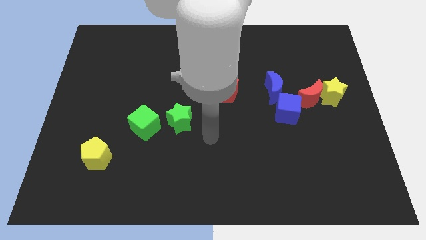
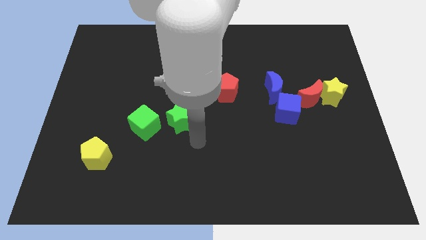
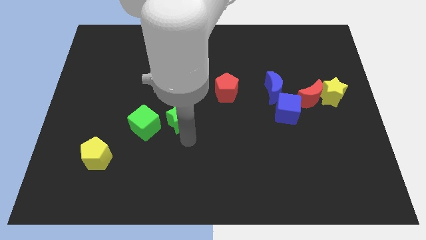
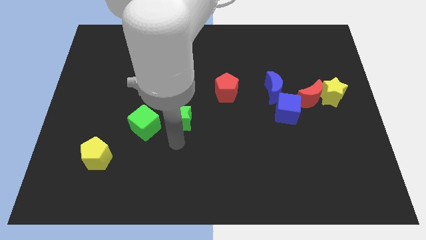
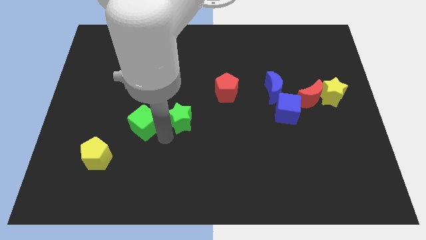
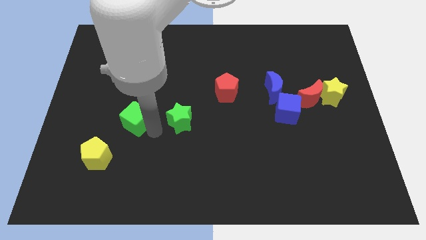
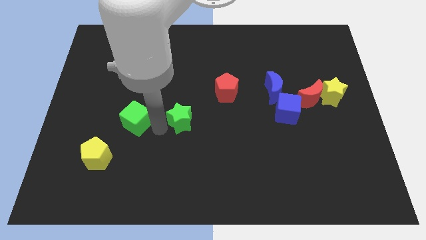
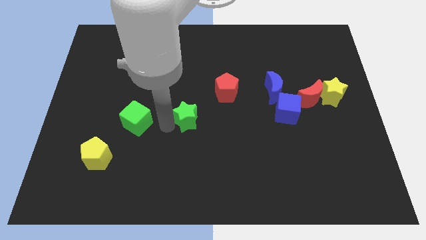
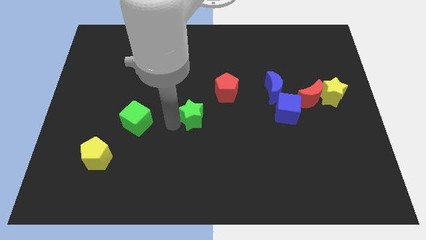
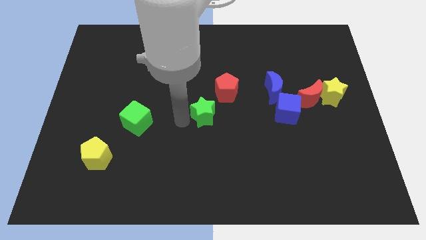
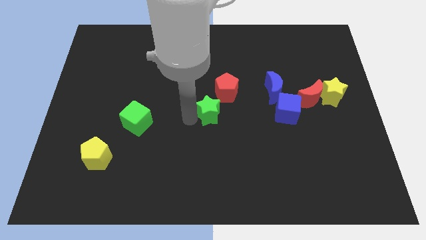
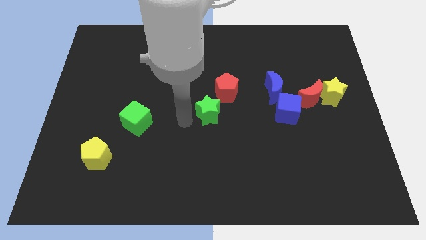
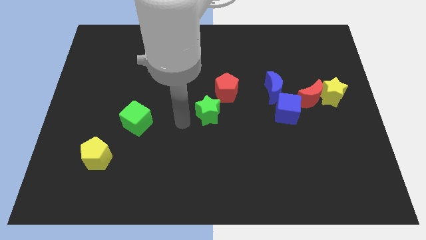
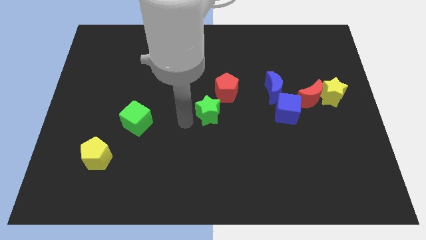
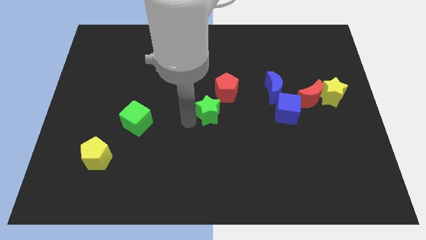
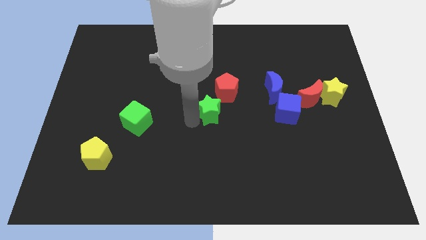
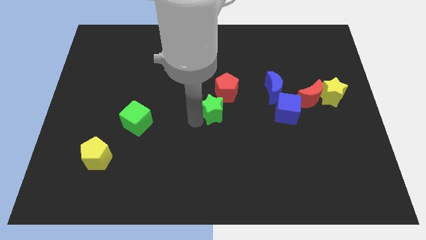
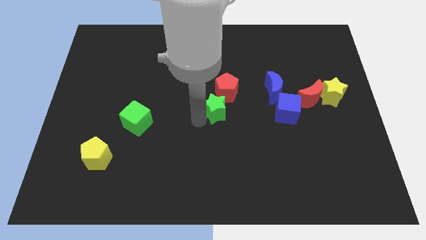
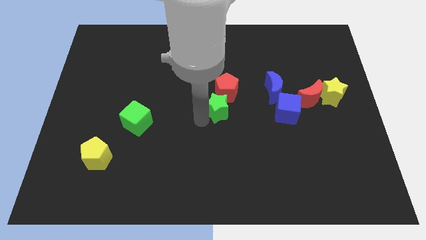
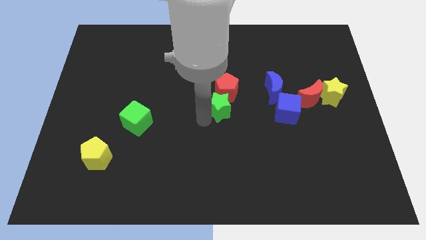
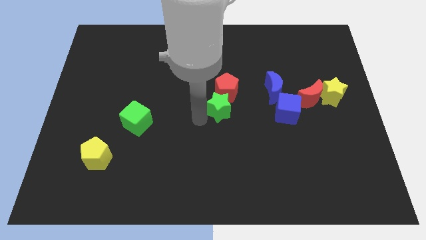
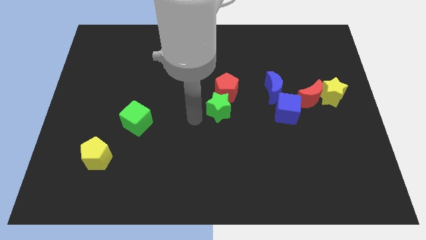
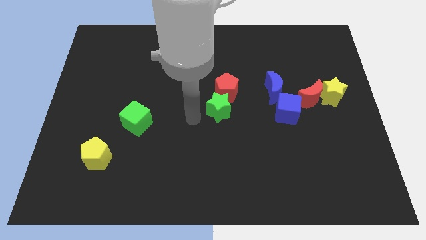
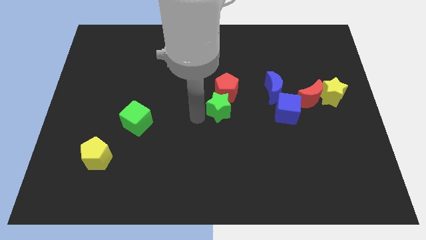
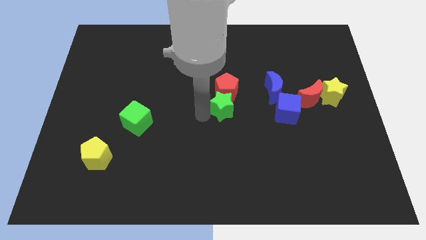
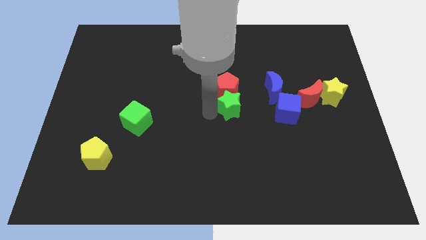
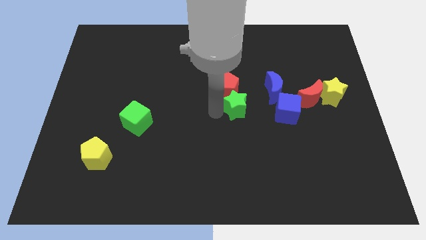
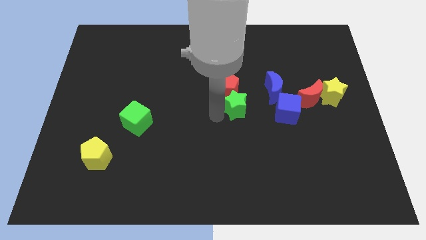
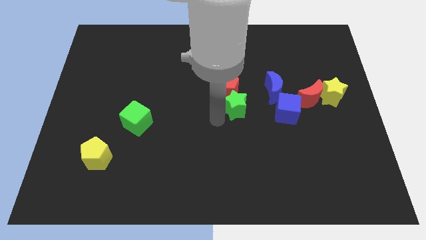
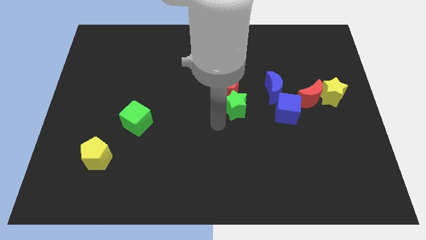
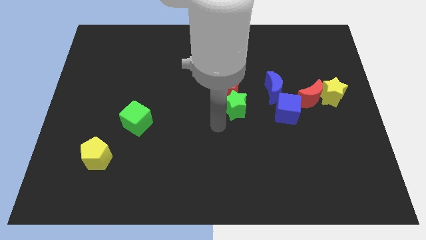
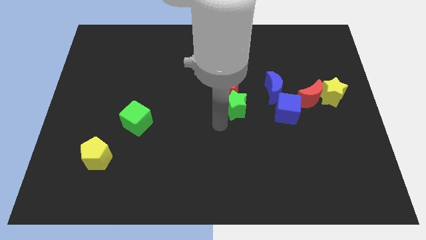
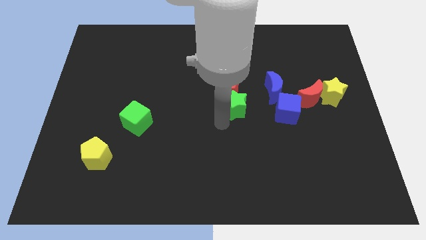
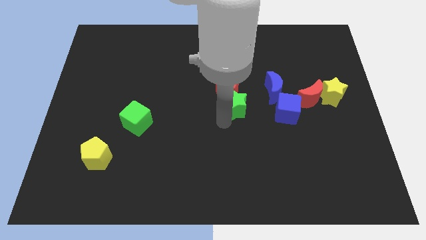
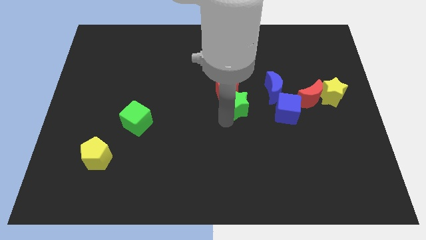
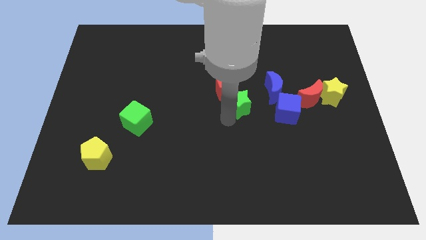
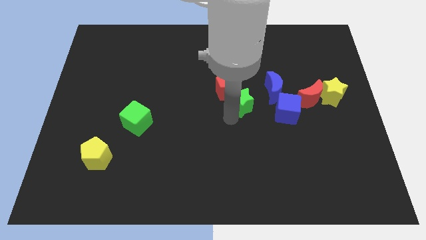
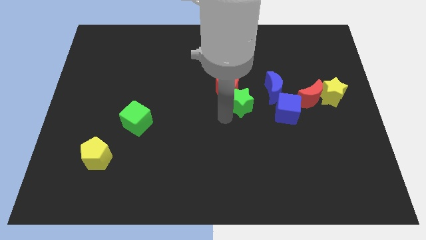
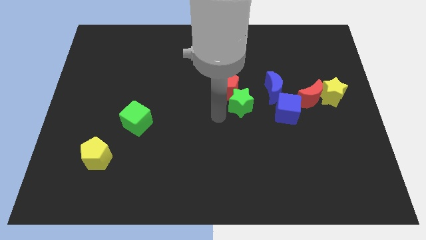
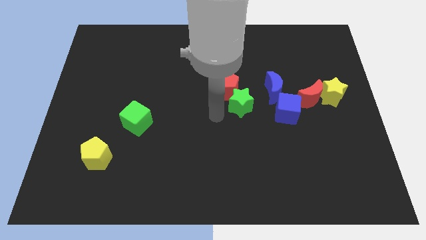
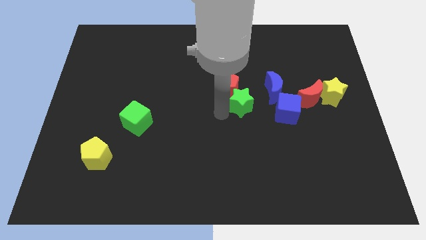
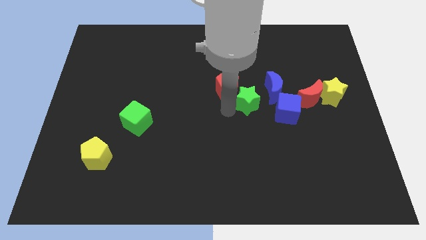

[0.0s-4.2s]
push the green star diagonally up and to the left of the blue cube

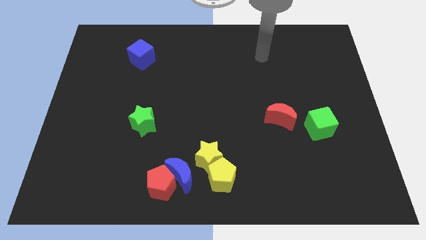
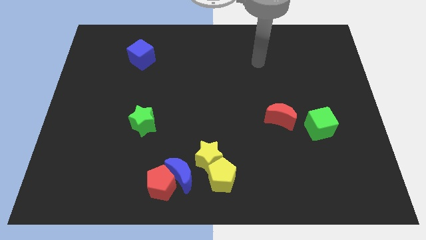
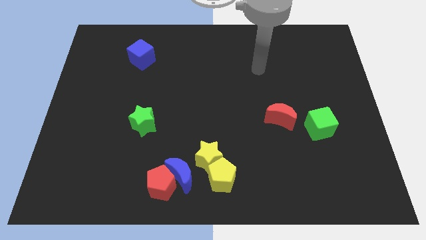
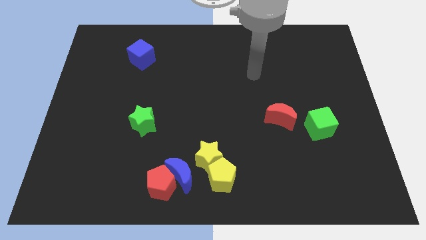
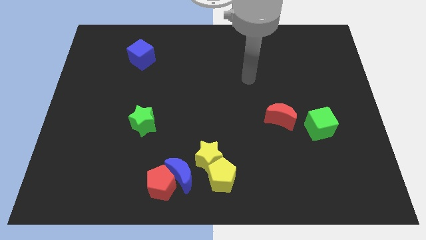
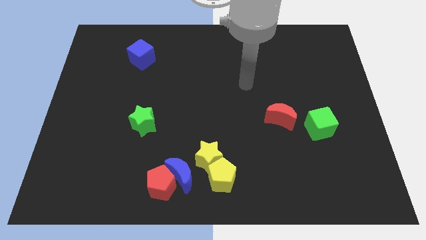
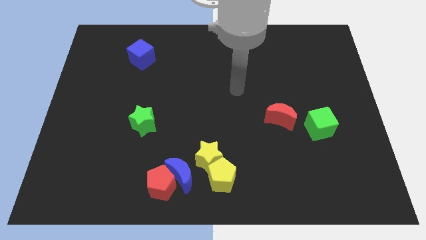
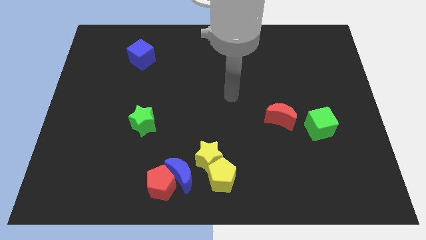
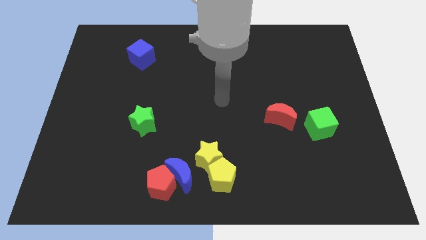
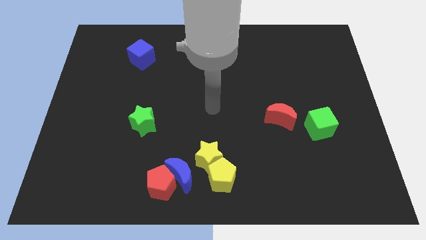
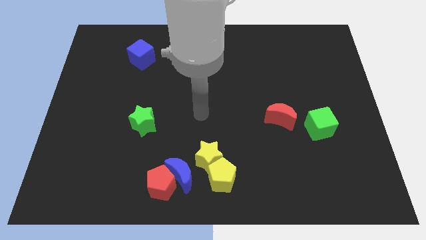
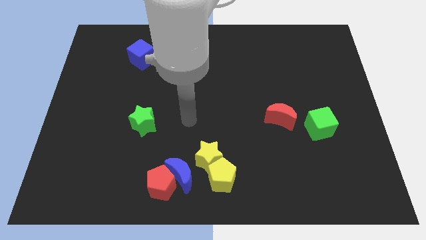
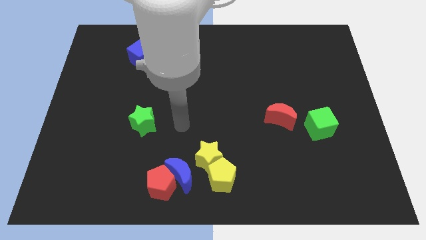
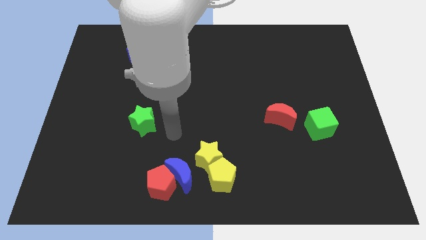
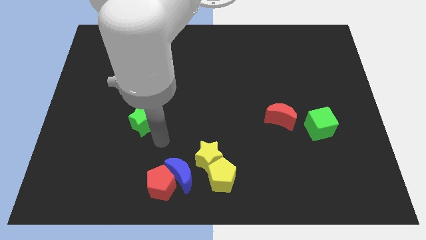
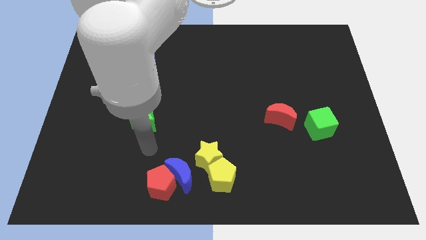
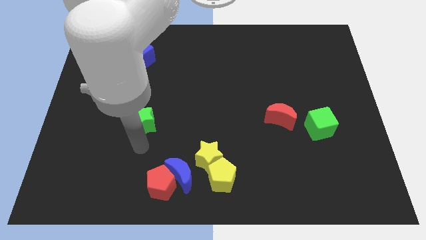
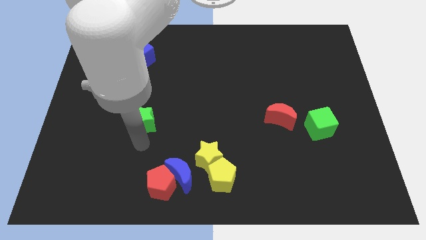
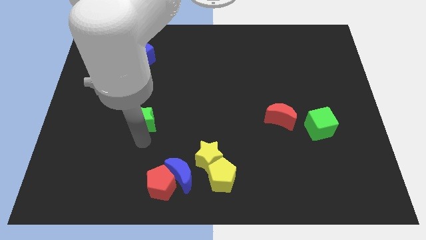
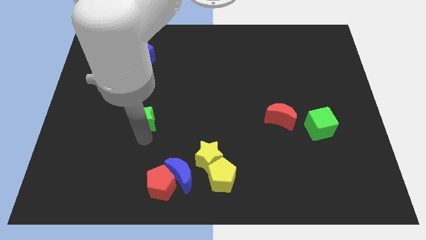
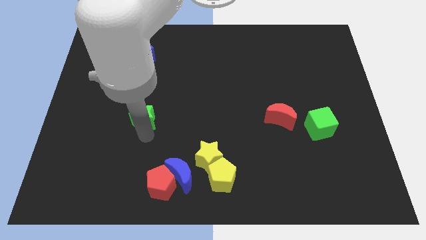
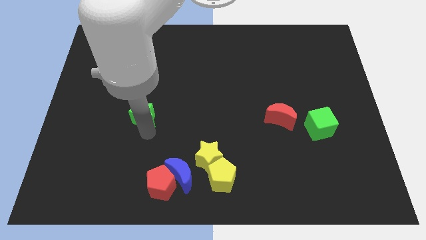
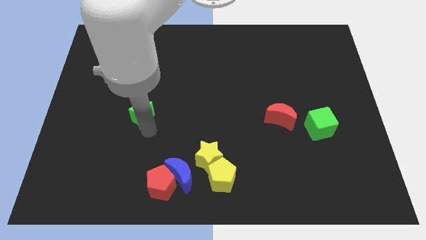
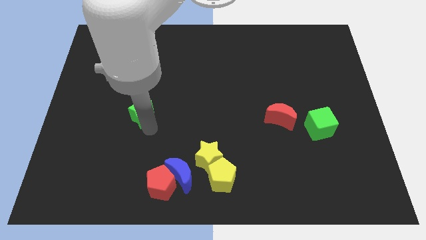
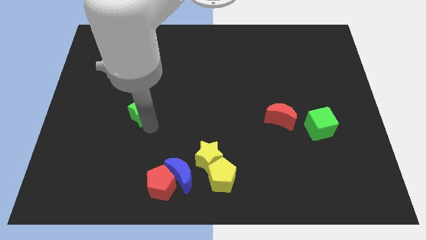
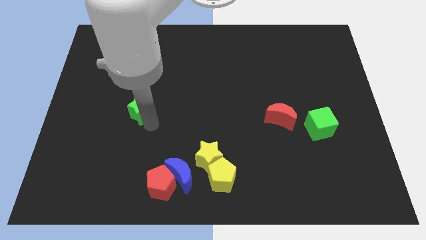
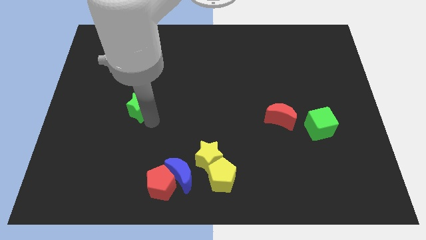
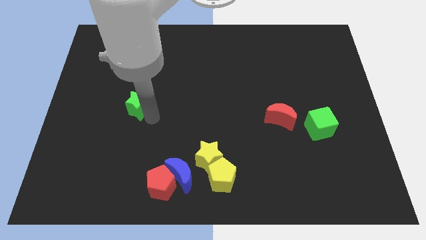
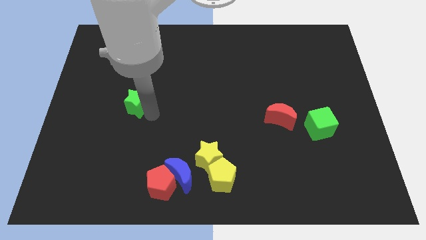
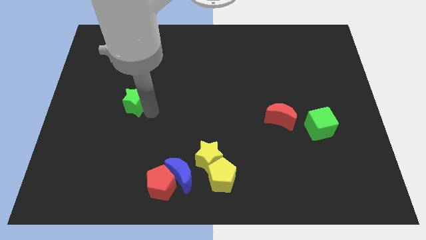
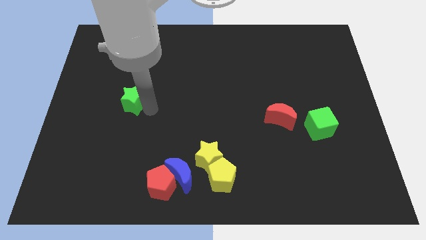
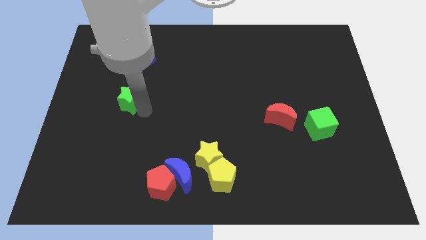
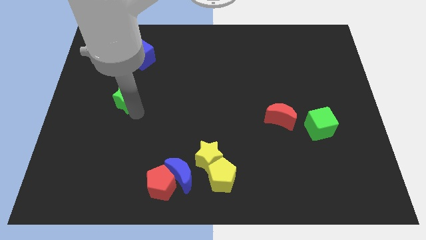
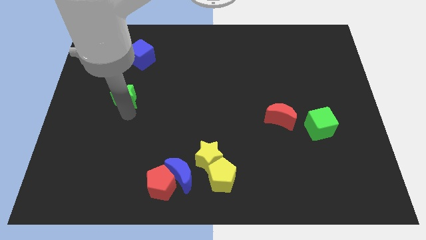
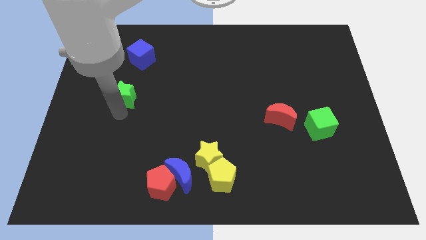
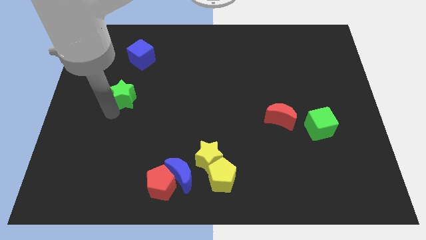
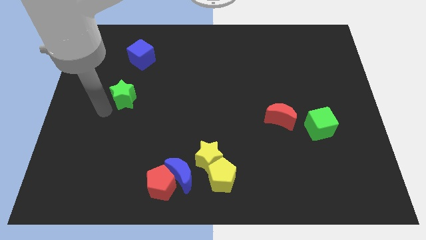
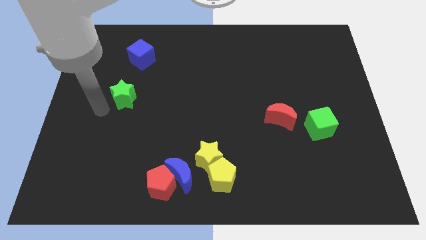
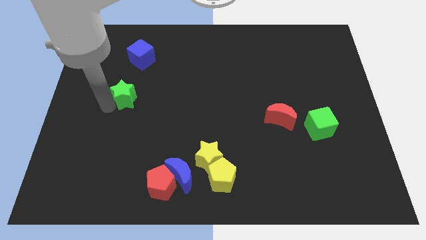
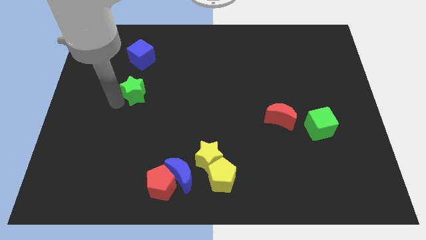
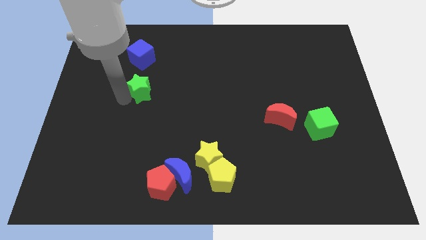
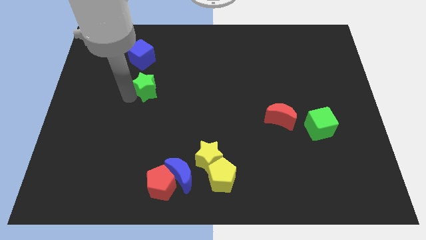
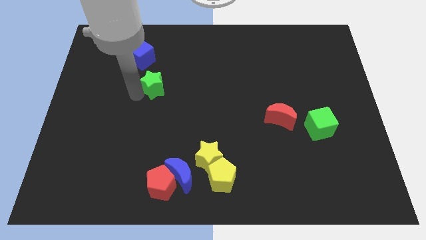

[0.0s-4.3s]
push the green star to the bottom right side of the blue cube
